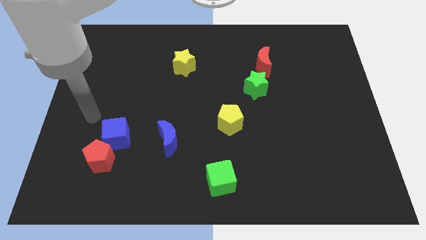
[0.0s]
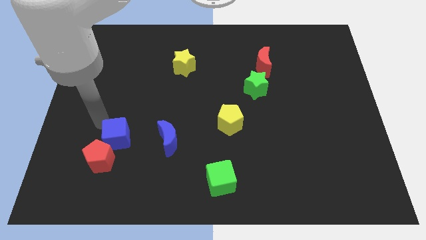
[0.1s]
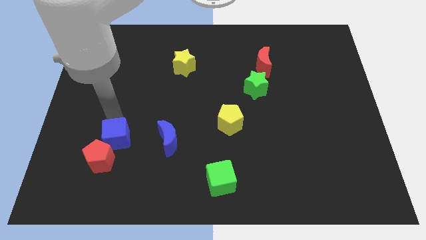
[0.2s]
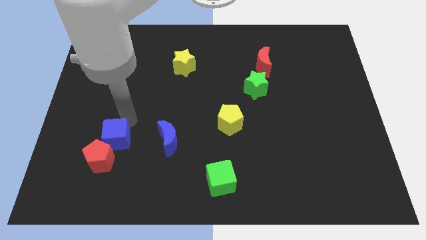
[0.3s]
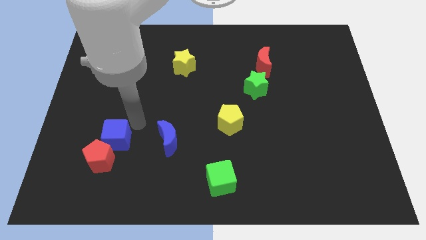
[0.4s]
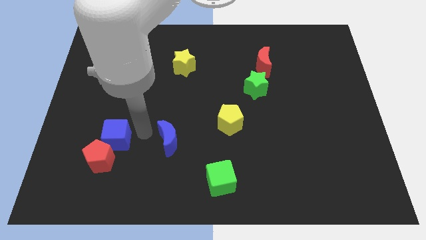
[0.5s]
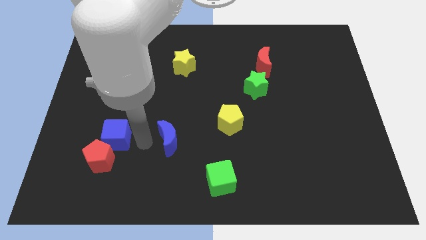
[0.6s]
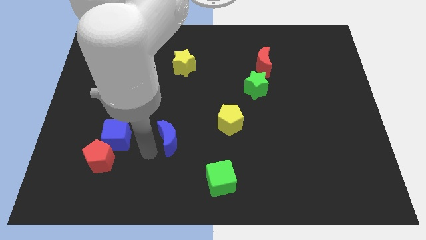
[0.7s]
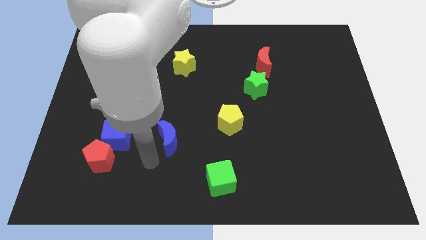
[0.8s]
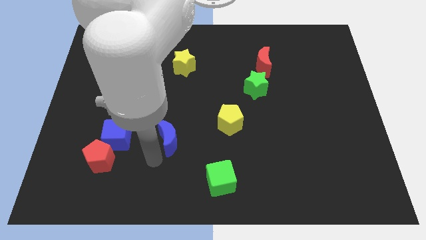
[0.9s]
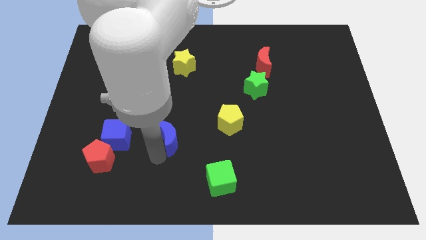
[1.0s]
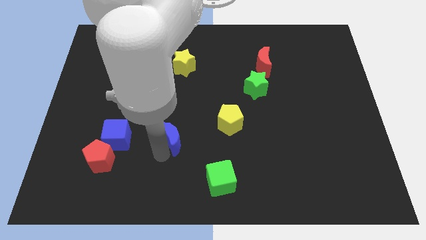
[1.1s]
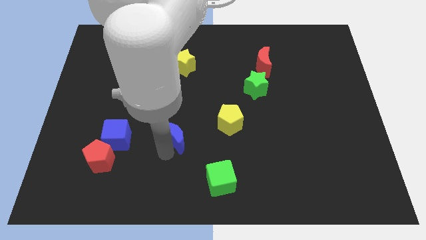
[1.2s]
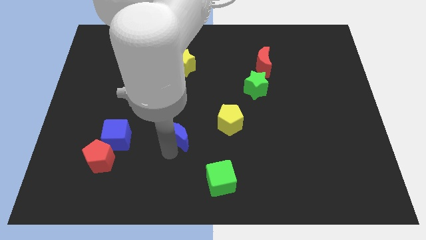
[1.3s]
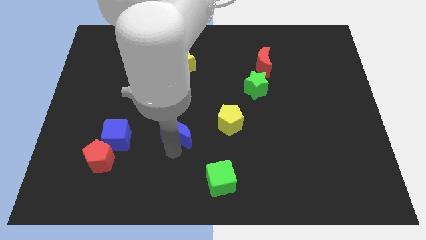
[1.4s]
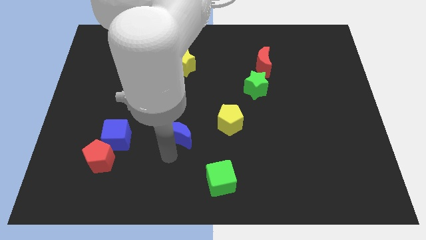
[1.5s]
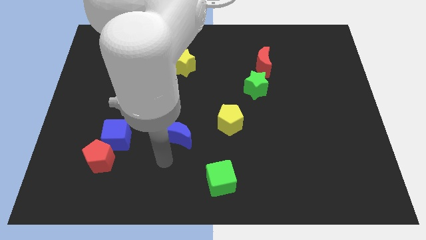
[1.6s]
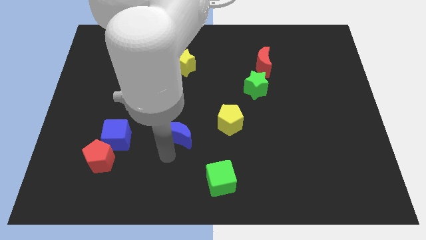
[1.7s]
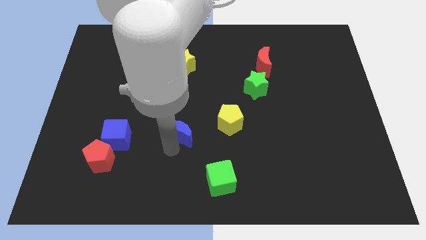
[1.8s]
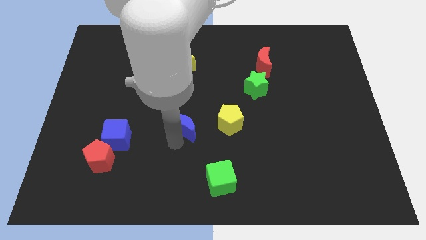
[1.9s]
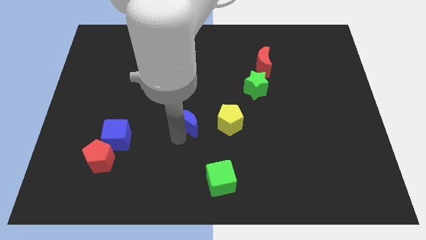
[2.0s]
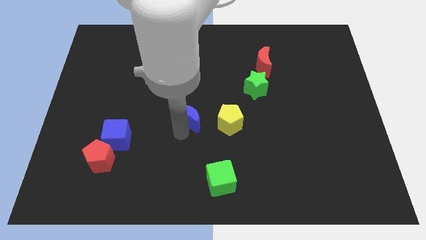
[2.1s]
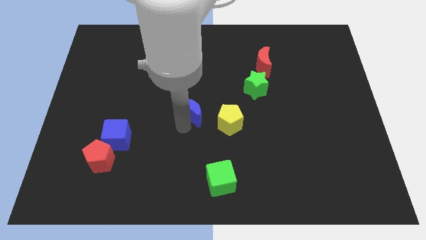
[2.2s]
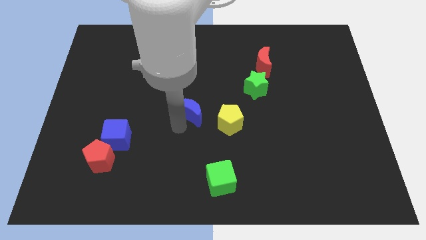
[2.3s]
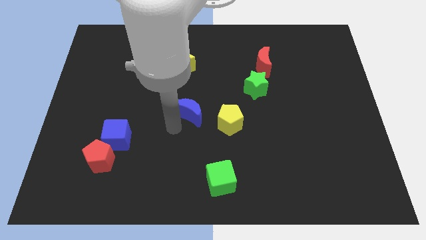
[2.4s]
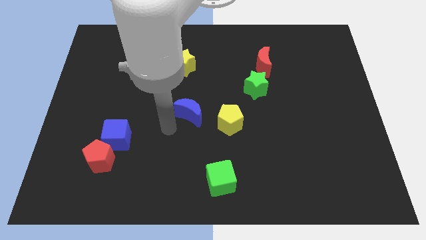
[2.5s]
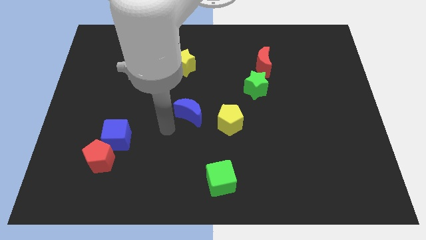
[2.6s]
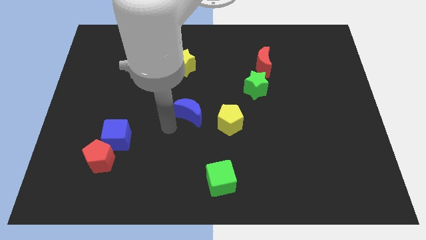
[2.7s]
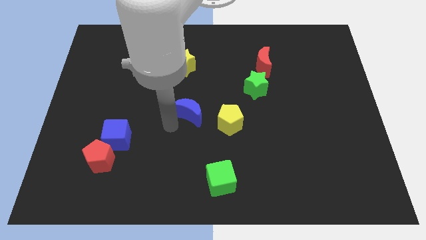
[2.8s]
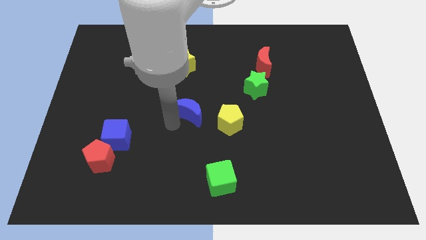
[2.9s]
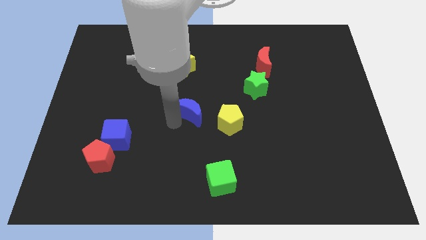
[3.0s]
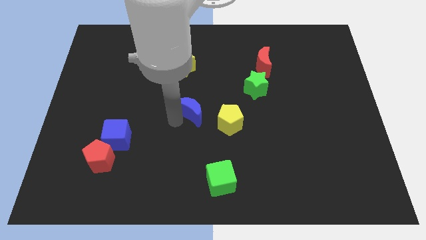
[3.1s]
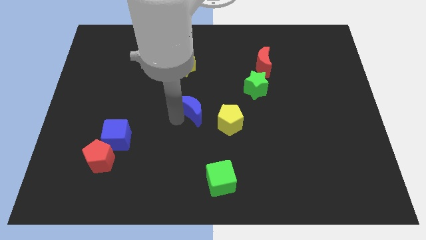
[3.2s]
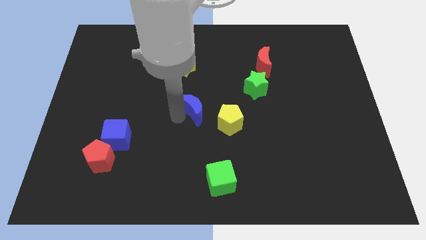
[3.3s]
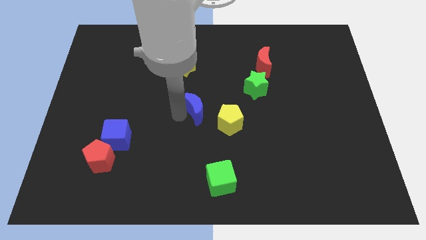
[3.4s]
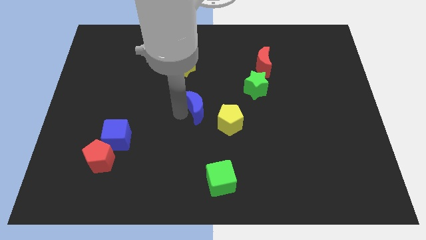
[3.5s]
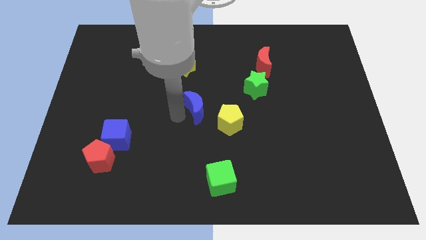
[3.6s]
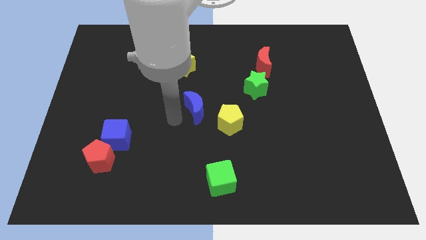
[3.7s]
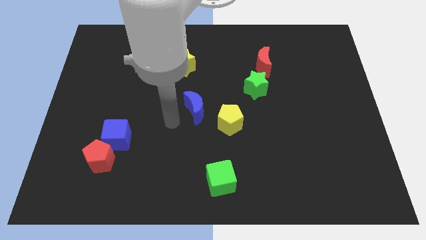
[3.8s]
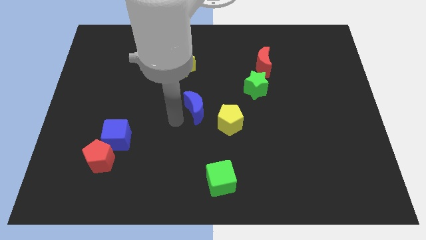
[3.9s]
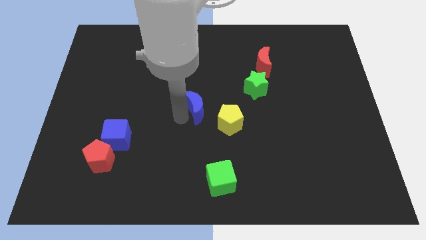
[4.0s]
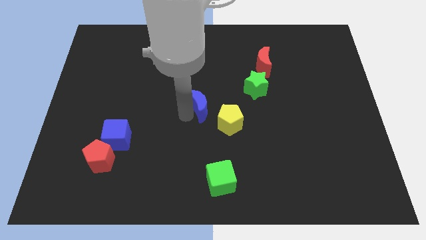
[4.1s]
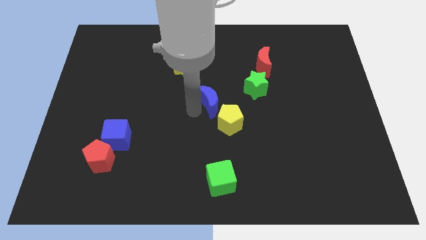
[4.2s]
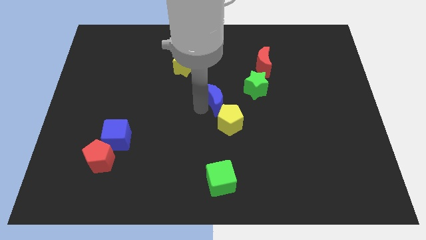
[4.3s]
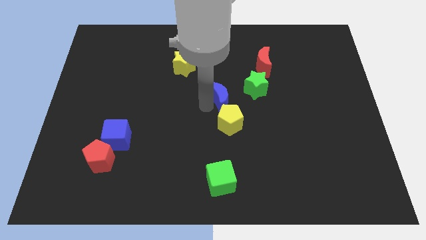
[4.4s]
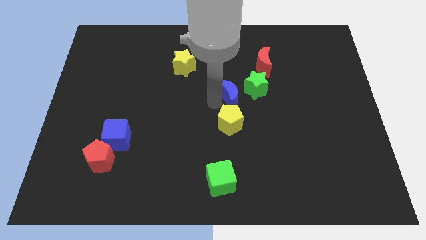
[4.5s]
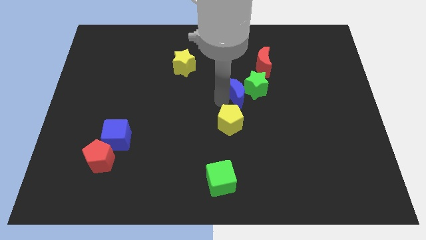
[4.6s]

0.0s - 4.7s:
move the blue moon towards the green star

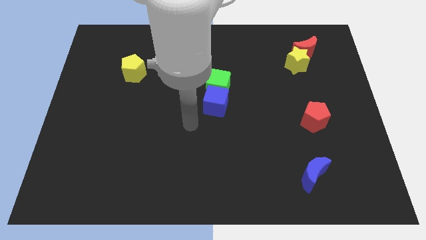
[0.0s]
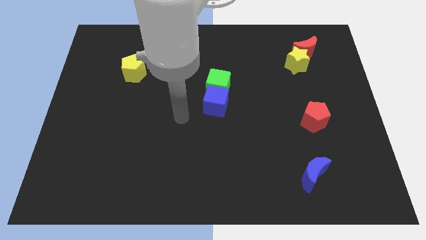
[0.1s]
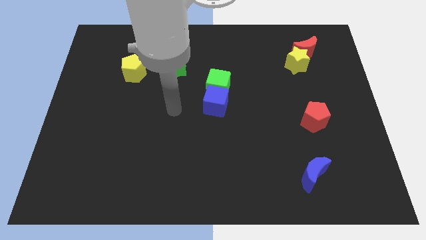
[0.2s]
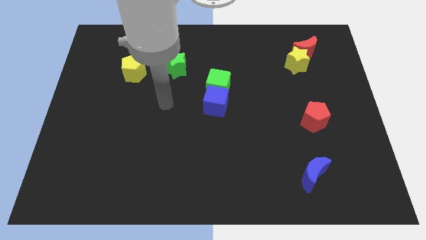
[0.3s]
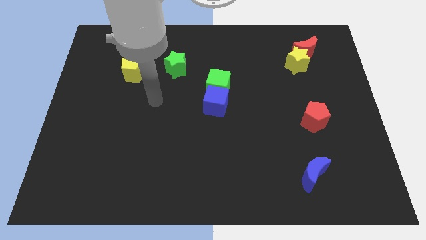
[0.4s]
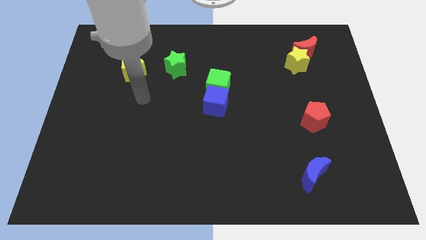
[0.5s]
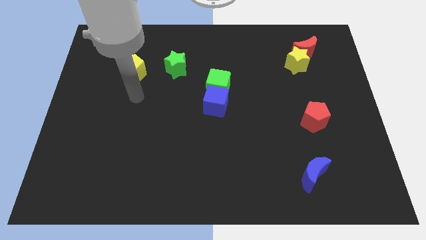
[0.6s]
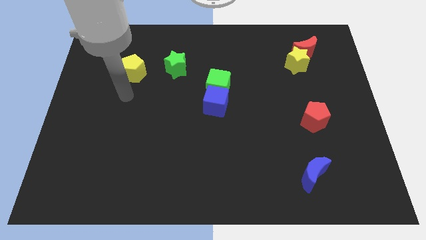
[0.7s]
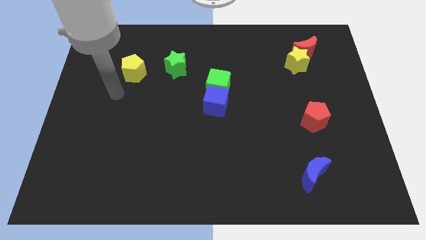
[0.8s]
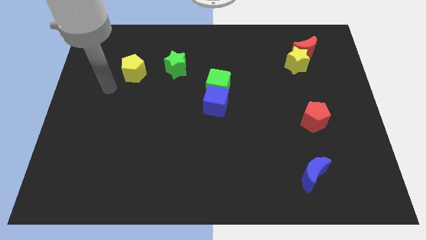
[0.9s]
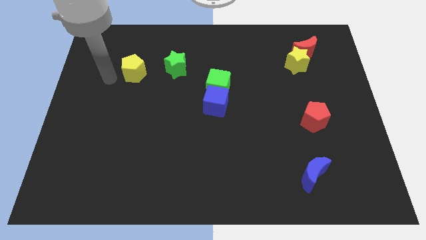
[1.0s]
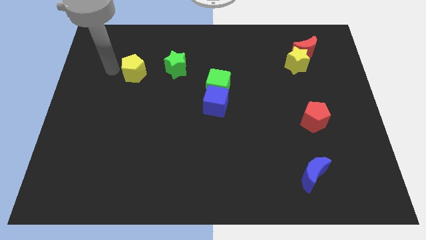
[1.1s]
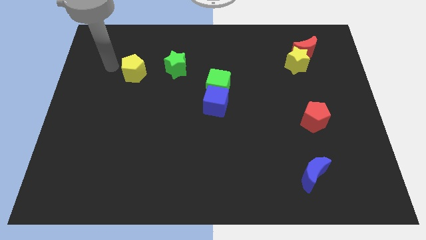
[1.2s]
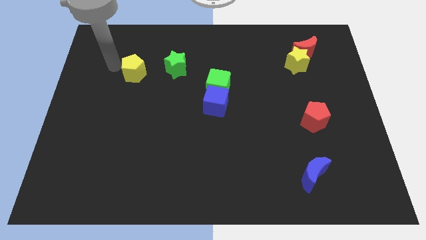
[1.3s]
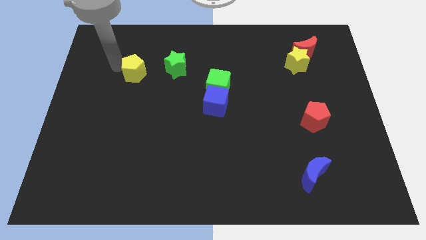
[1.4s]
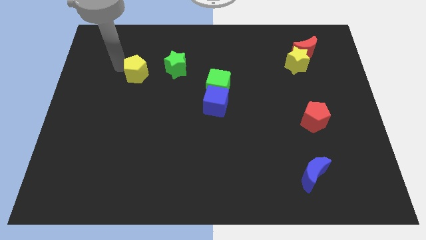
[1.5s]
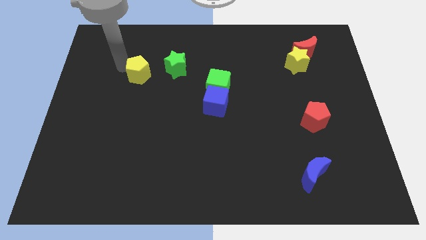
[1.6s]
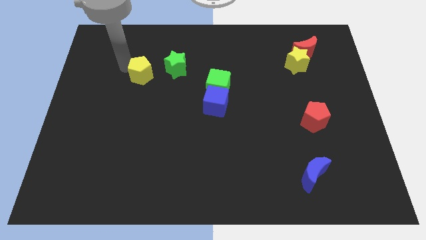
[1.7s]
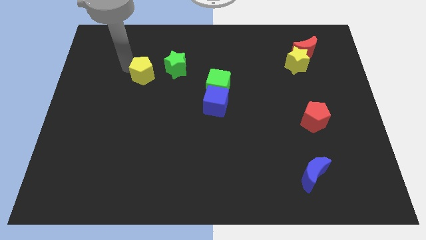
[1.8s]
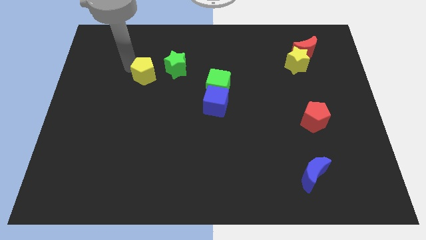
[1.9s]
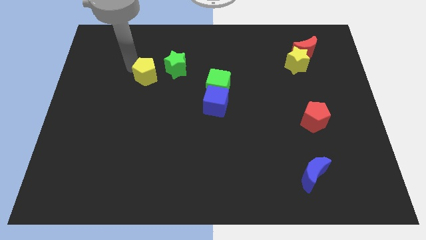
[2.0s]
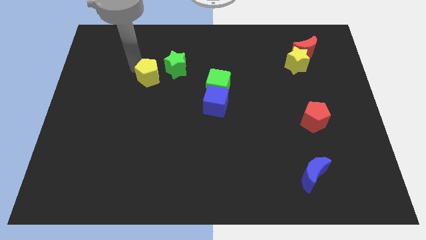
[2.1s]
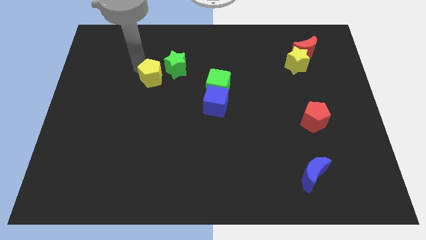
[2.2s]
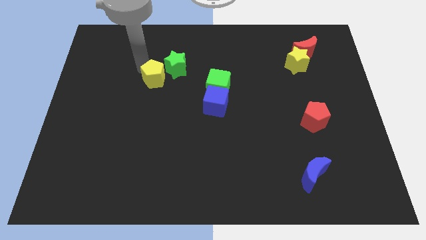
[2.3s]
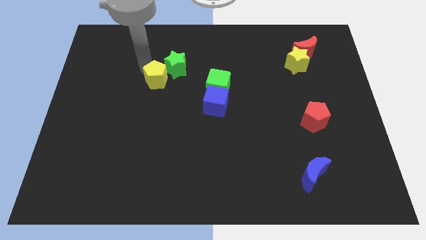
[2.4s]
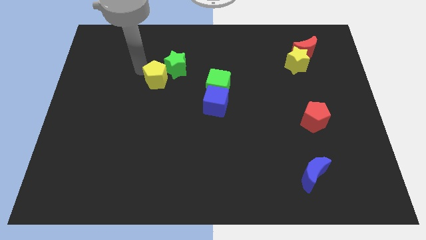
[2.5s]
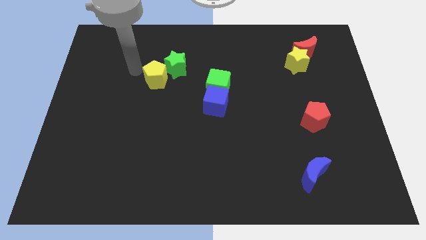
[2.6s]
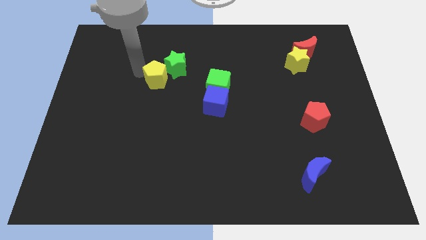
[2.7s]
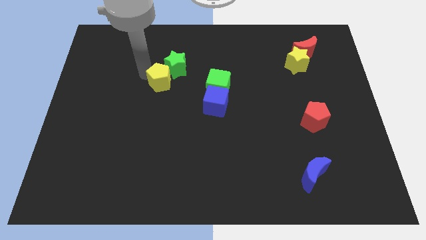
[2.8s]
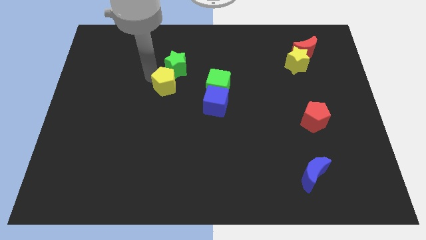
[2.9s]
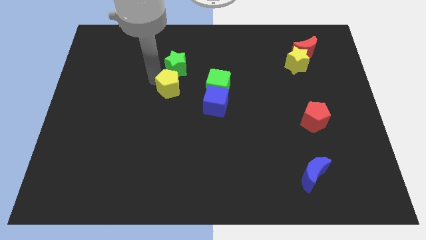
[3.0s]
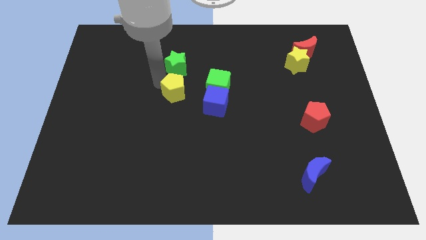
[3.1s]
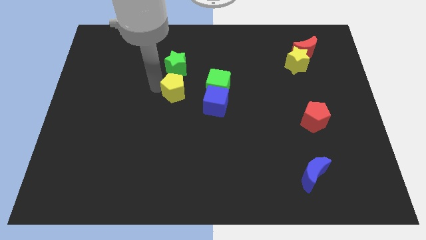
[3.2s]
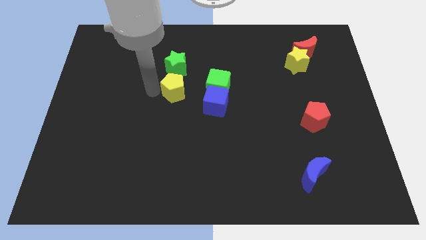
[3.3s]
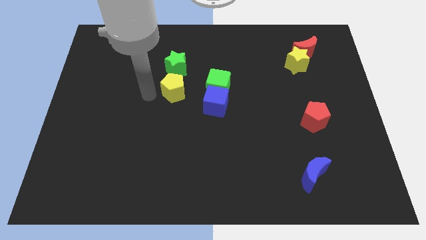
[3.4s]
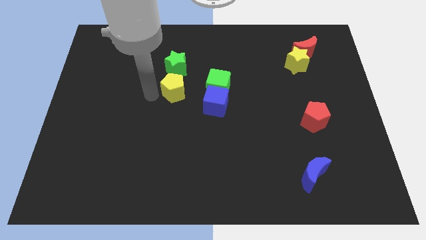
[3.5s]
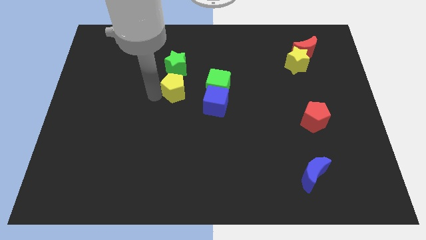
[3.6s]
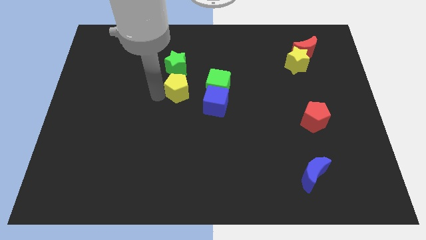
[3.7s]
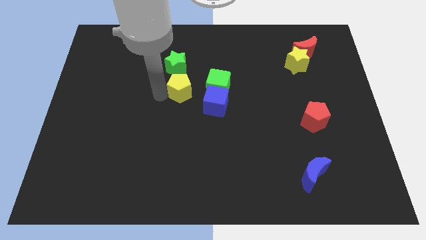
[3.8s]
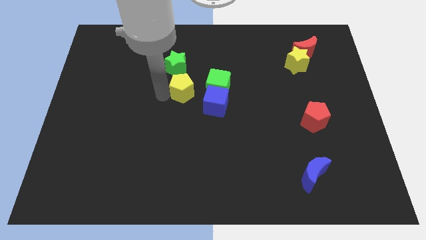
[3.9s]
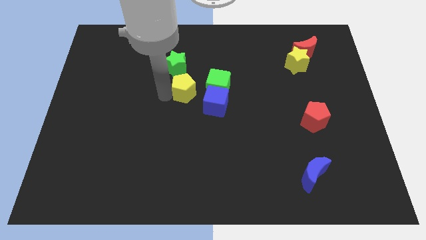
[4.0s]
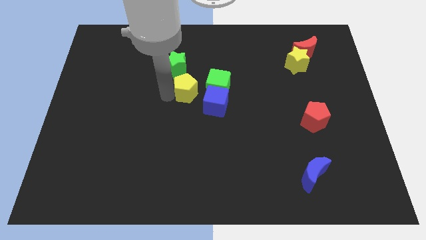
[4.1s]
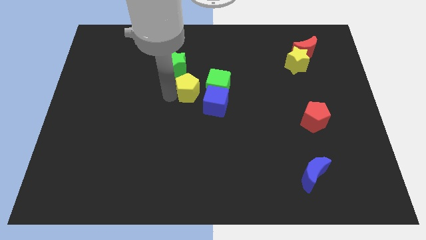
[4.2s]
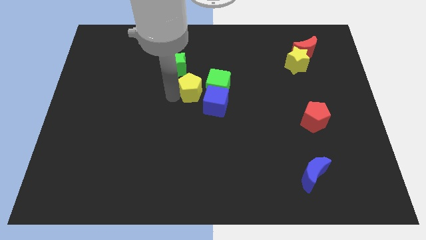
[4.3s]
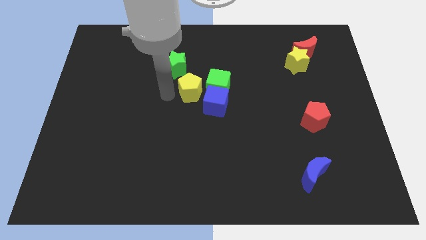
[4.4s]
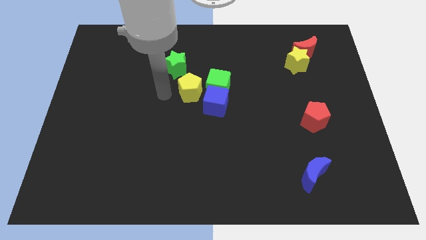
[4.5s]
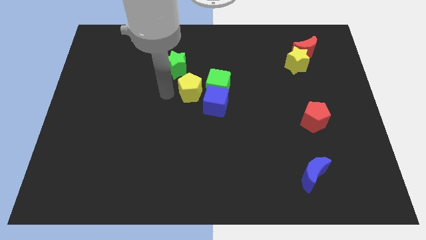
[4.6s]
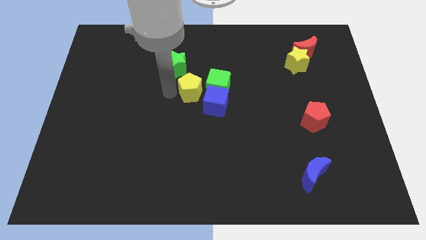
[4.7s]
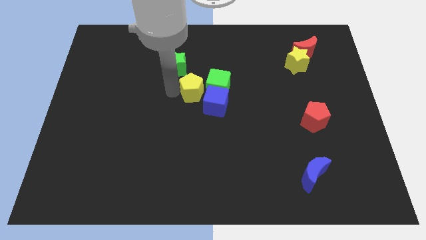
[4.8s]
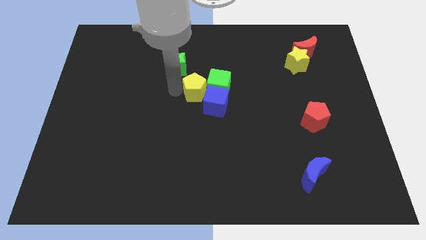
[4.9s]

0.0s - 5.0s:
move the yellow pentagon to the green cube
